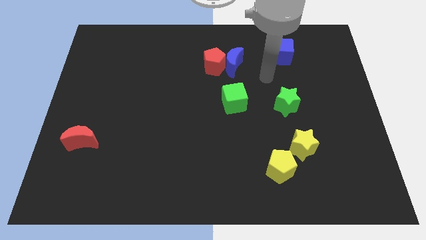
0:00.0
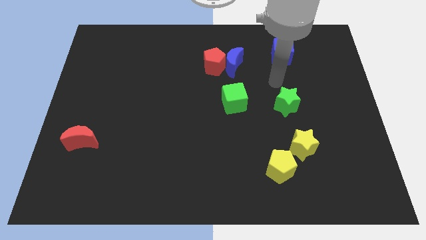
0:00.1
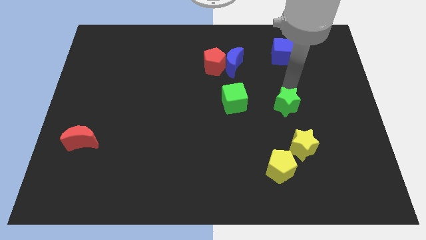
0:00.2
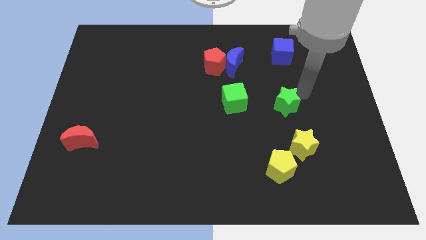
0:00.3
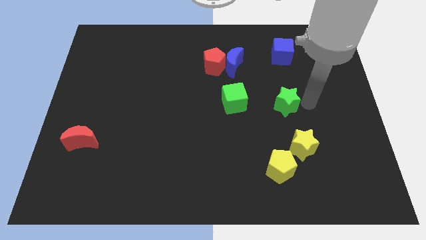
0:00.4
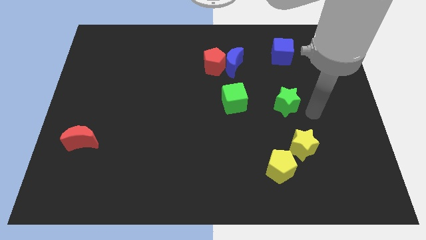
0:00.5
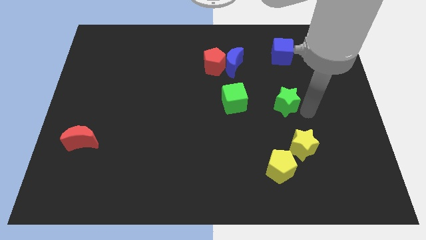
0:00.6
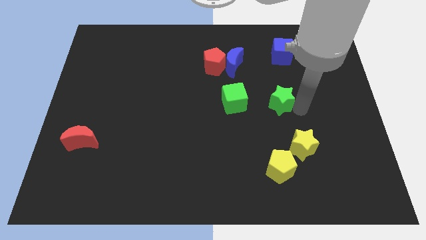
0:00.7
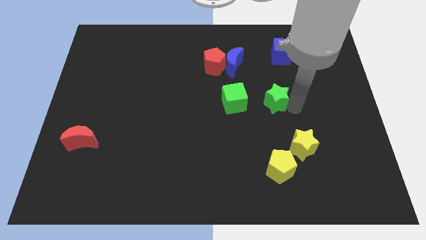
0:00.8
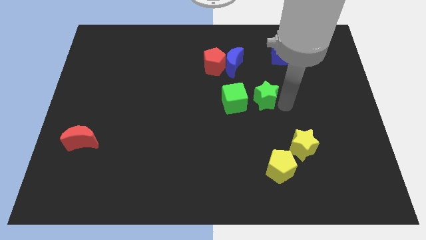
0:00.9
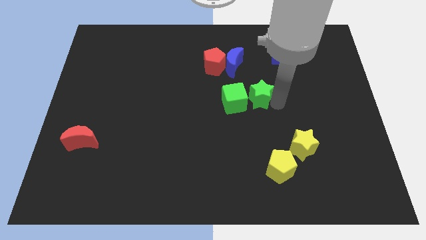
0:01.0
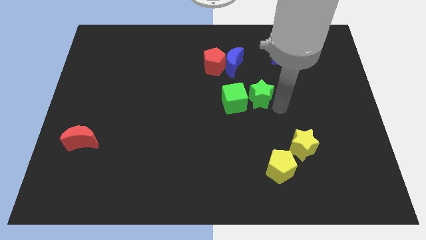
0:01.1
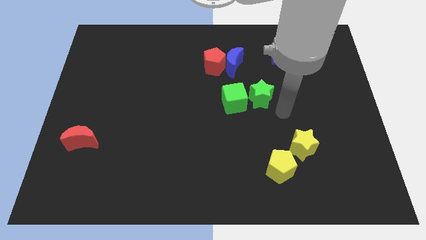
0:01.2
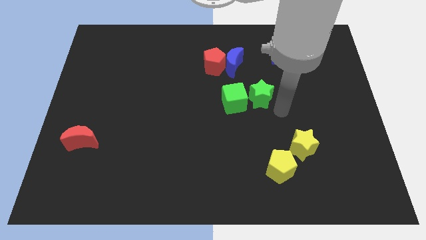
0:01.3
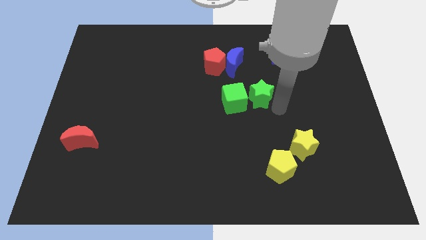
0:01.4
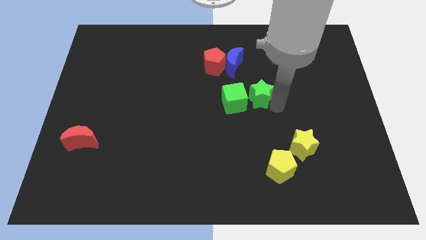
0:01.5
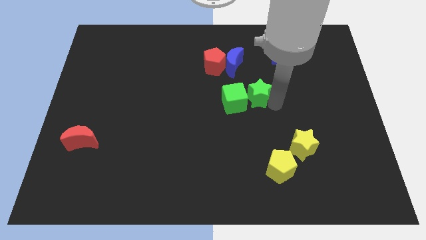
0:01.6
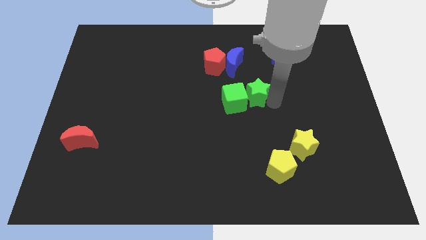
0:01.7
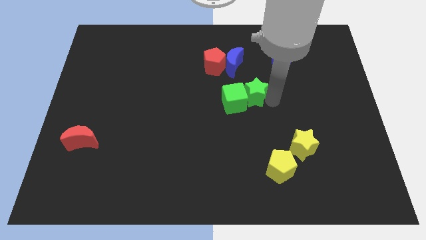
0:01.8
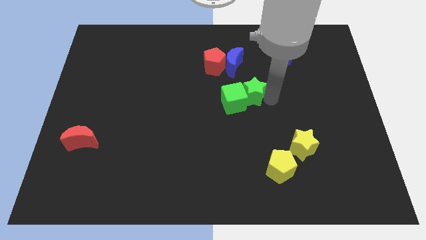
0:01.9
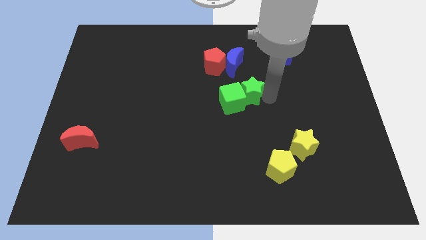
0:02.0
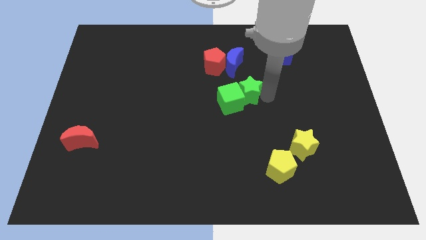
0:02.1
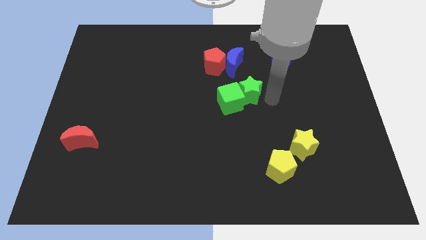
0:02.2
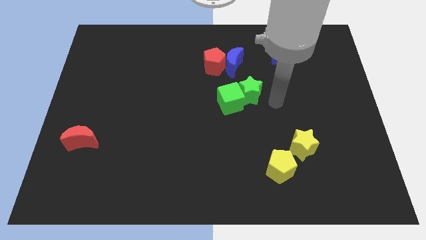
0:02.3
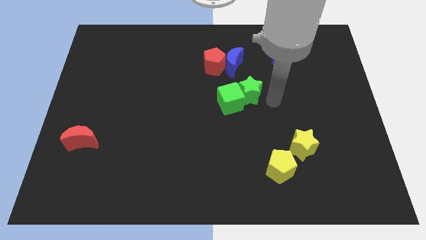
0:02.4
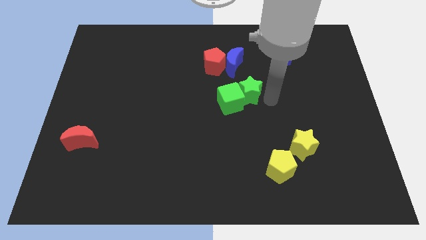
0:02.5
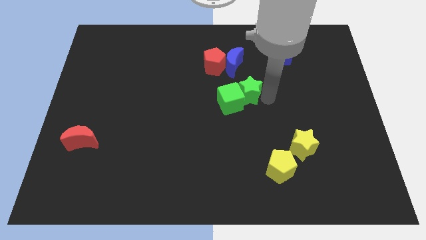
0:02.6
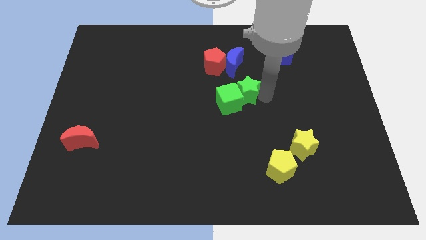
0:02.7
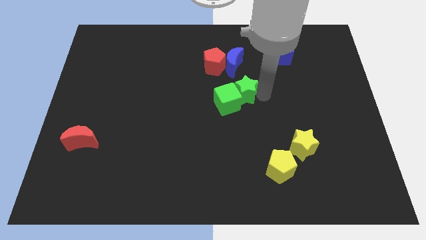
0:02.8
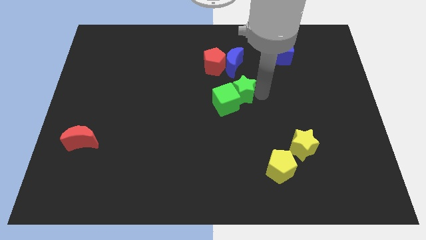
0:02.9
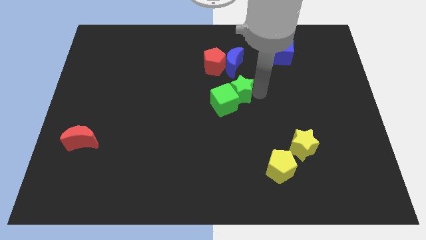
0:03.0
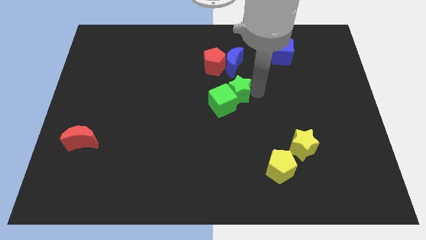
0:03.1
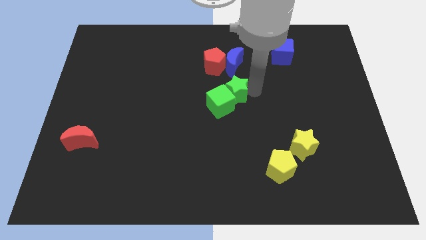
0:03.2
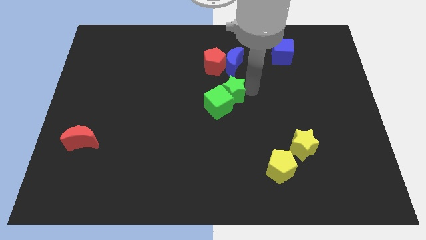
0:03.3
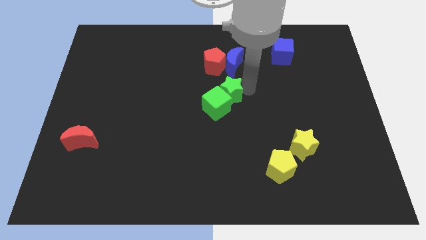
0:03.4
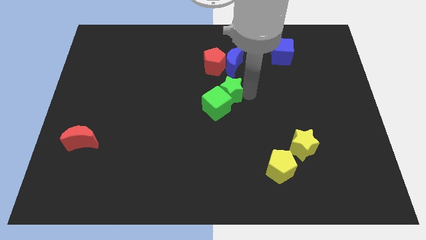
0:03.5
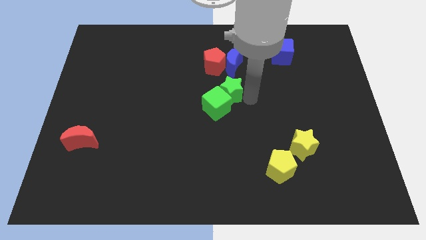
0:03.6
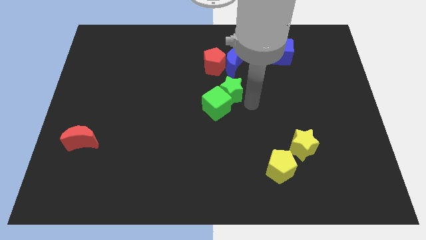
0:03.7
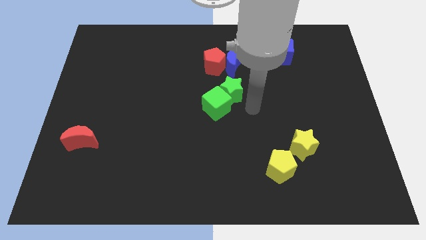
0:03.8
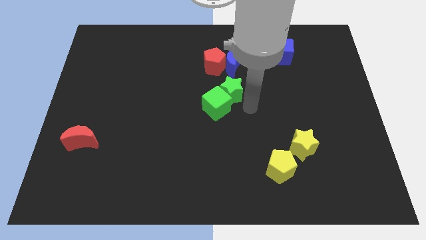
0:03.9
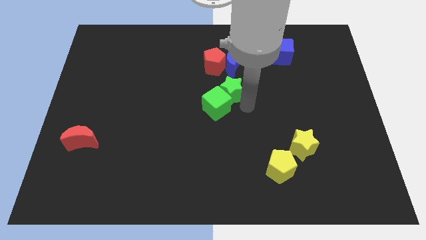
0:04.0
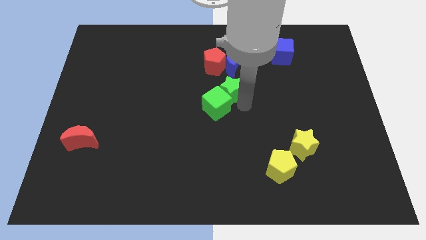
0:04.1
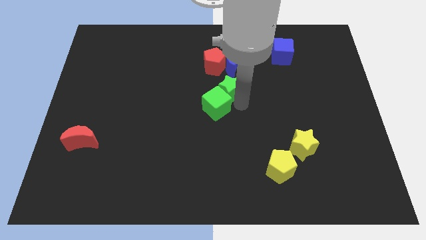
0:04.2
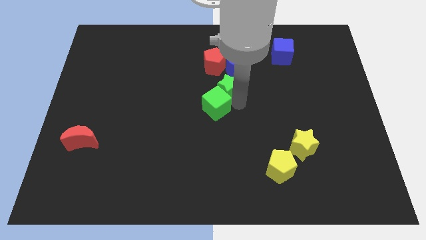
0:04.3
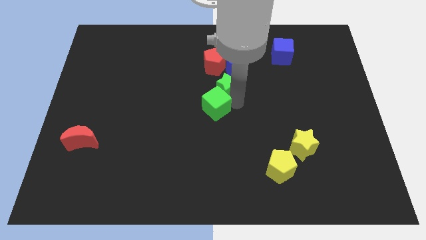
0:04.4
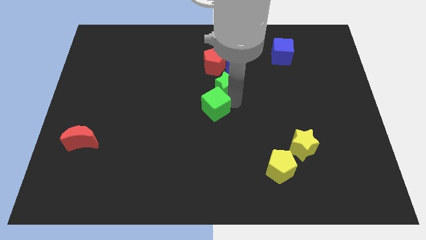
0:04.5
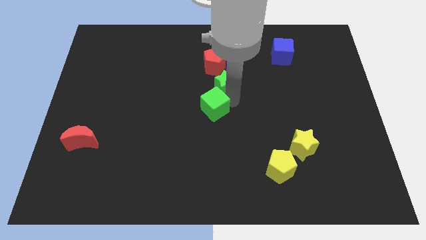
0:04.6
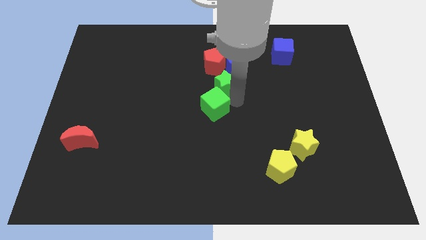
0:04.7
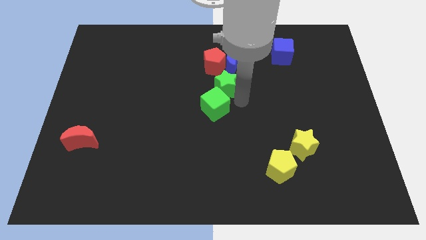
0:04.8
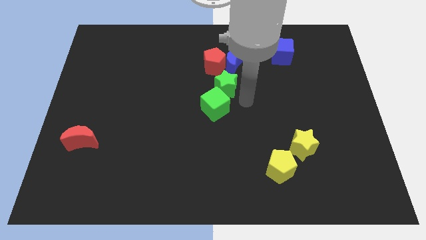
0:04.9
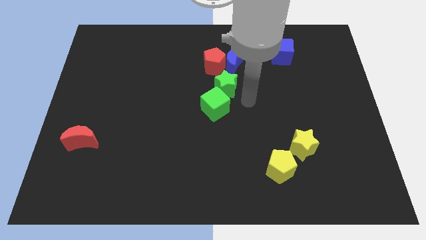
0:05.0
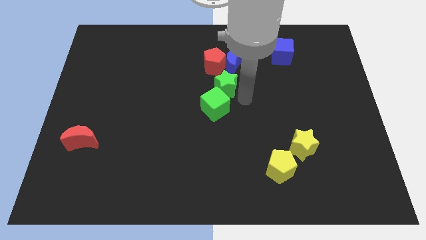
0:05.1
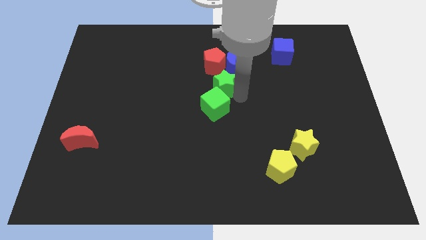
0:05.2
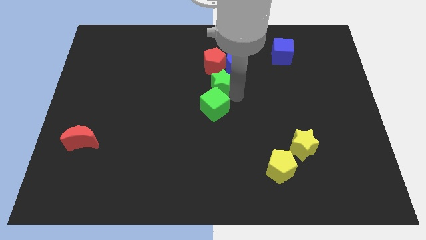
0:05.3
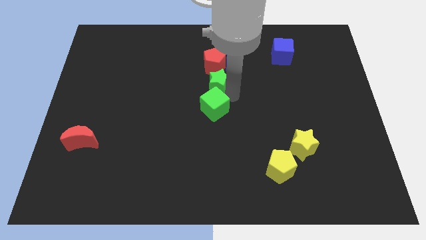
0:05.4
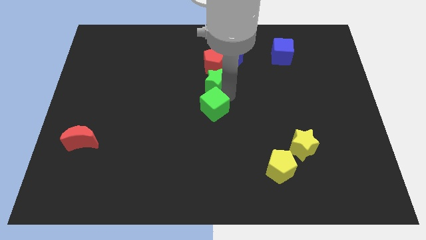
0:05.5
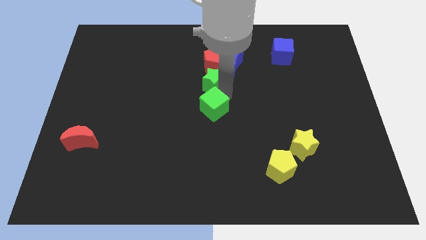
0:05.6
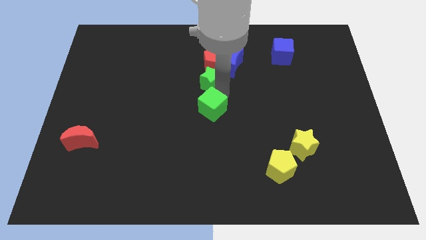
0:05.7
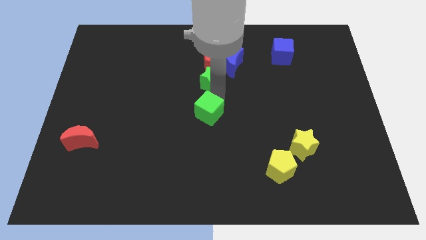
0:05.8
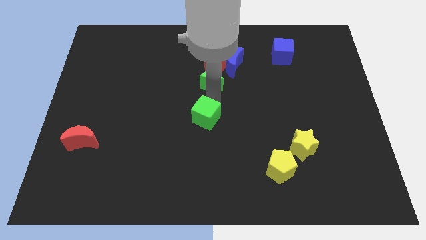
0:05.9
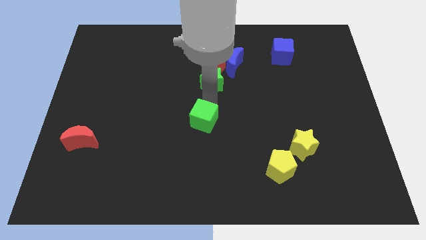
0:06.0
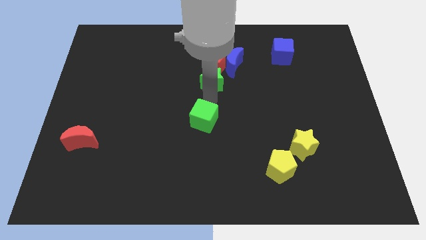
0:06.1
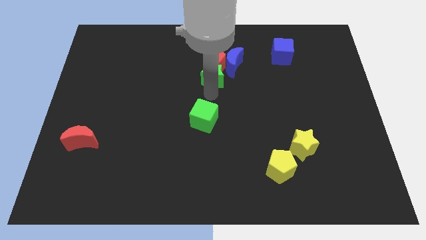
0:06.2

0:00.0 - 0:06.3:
put the green star close to the red pentagon
